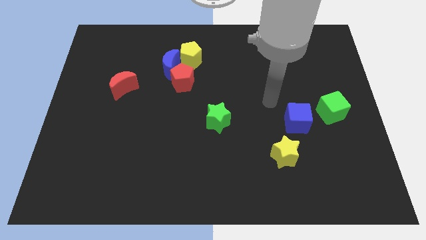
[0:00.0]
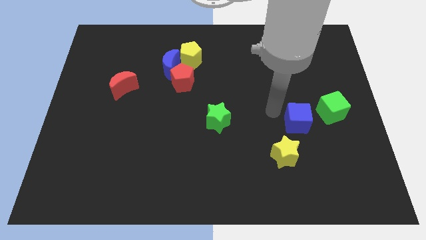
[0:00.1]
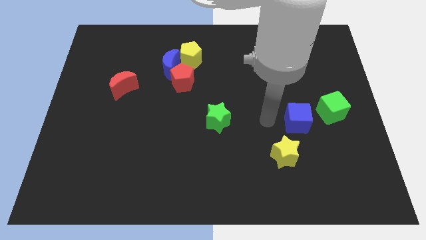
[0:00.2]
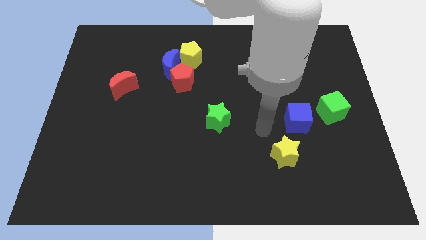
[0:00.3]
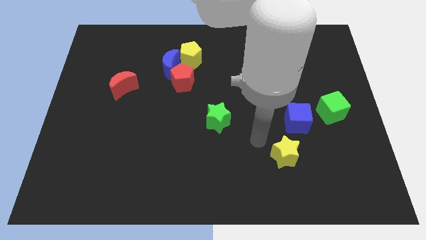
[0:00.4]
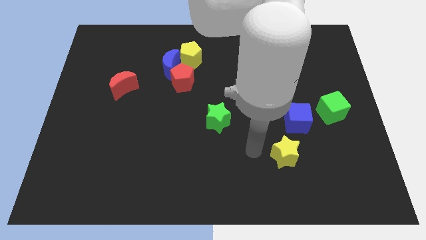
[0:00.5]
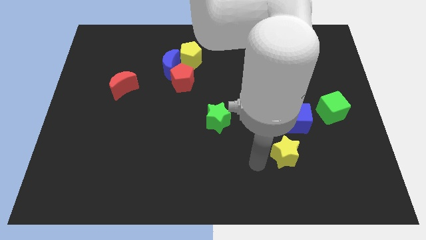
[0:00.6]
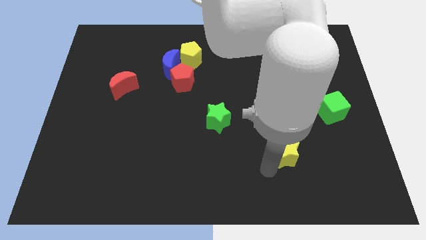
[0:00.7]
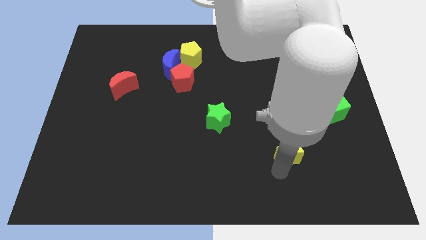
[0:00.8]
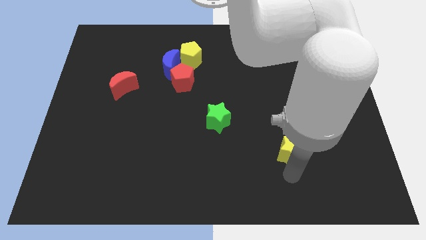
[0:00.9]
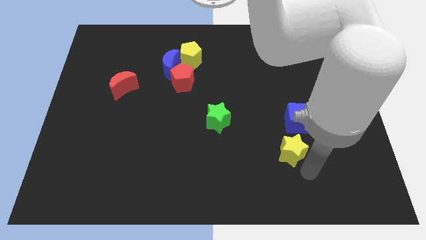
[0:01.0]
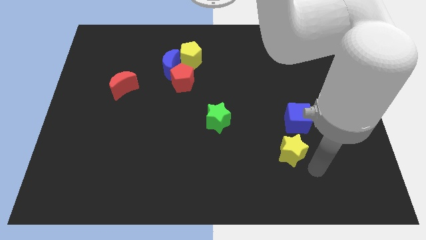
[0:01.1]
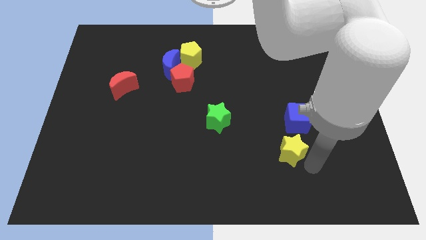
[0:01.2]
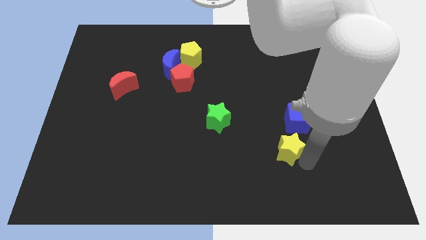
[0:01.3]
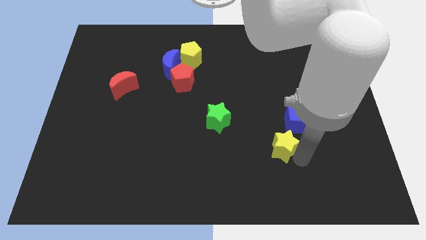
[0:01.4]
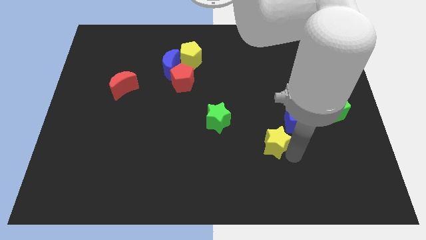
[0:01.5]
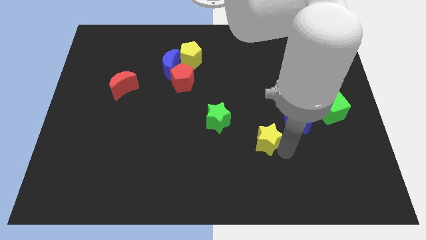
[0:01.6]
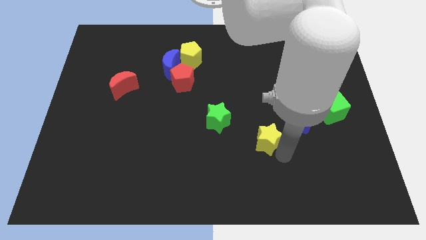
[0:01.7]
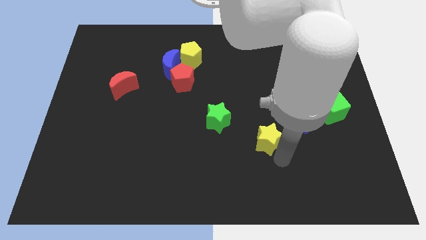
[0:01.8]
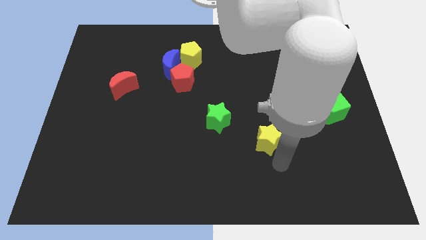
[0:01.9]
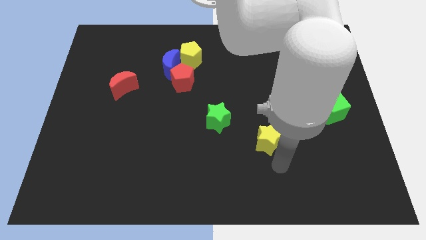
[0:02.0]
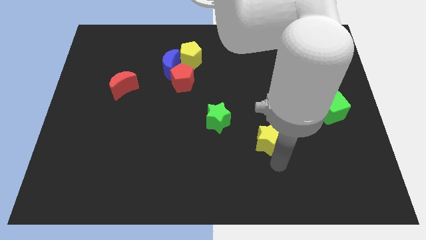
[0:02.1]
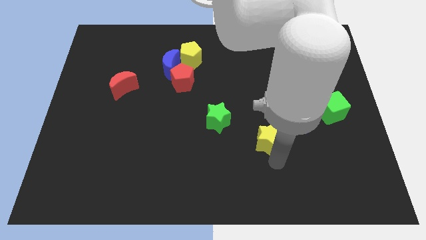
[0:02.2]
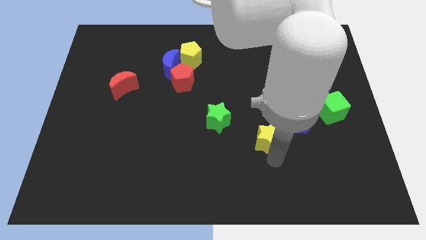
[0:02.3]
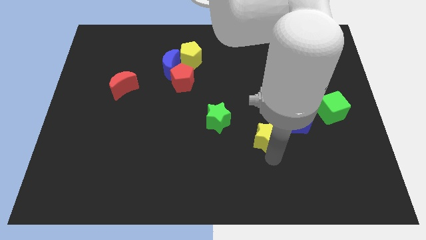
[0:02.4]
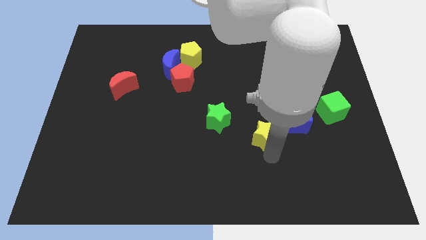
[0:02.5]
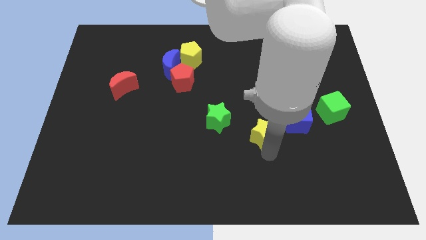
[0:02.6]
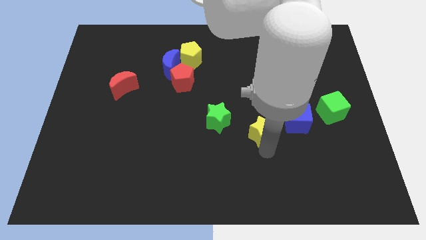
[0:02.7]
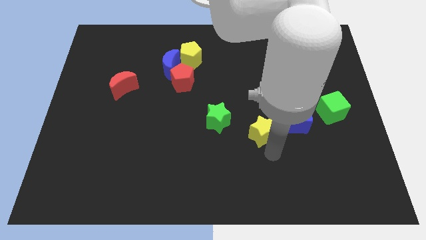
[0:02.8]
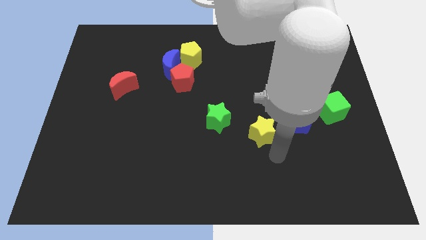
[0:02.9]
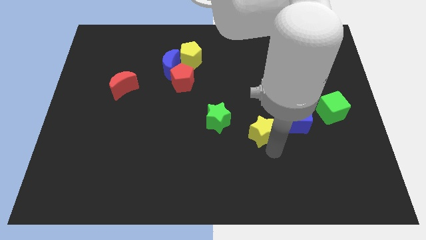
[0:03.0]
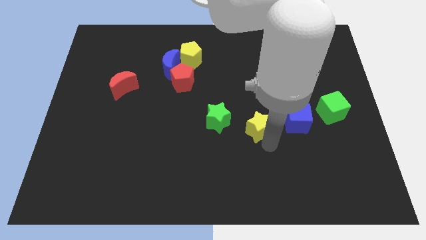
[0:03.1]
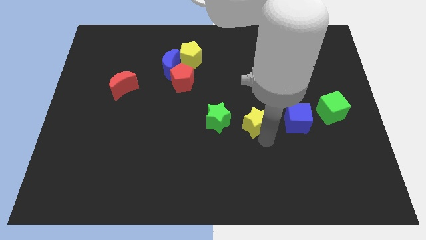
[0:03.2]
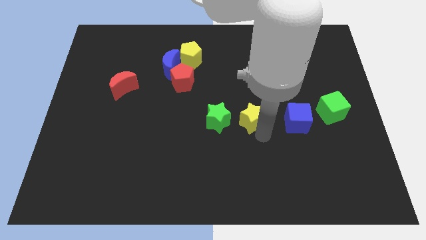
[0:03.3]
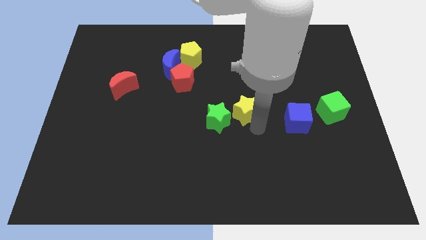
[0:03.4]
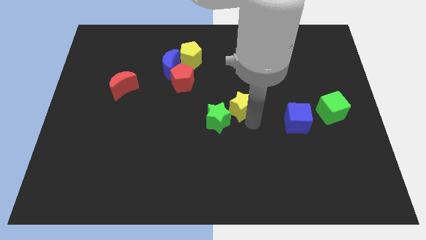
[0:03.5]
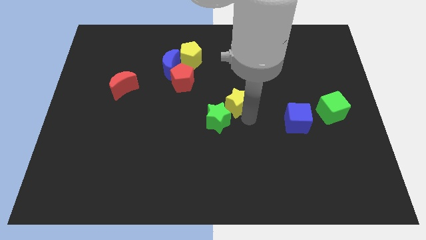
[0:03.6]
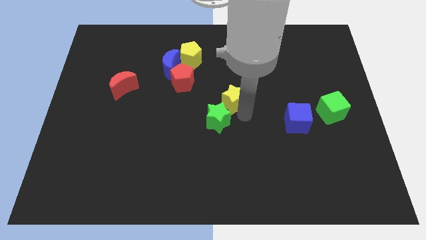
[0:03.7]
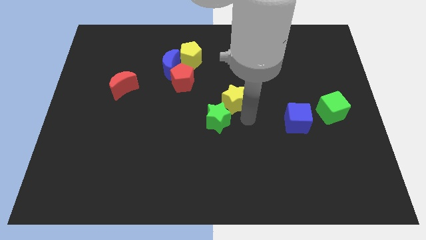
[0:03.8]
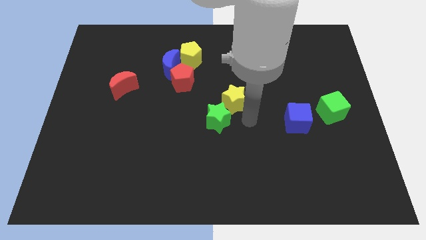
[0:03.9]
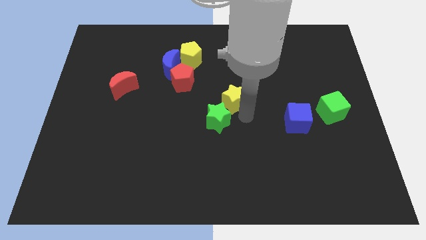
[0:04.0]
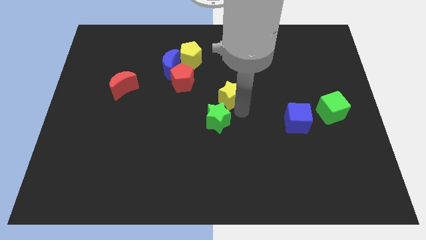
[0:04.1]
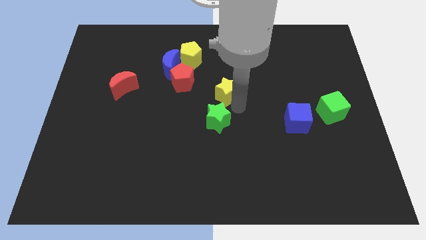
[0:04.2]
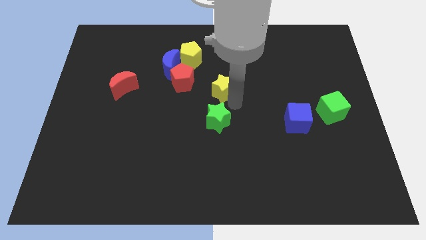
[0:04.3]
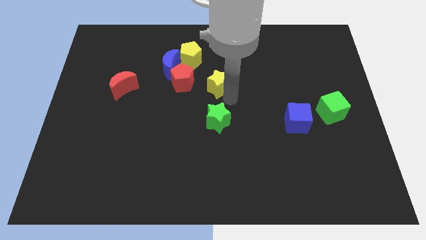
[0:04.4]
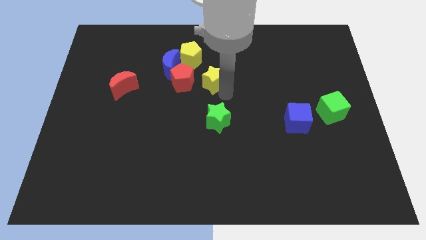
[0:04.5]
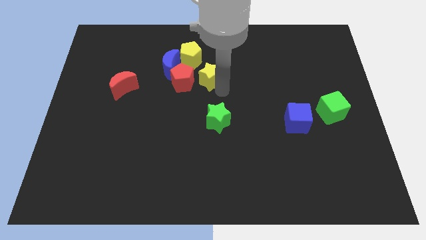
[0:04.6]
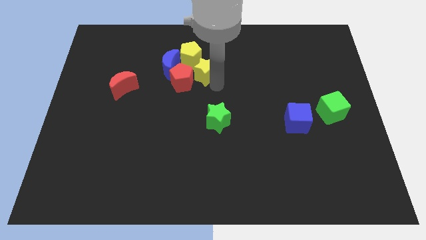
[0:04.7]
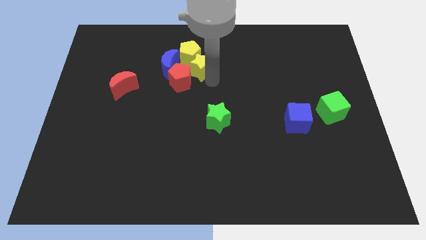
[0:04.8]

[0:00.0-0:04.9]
slide the yellow star towards the yellow pentagon

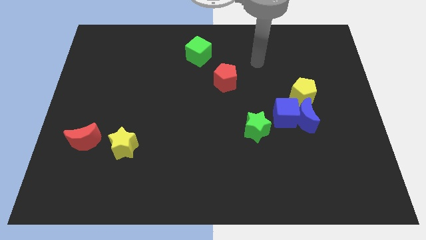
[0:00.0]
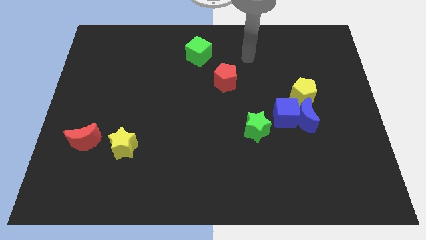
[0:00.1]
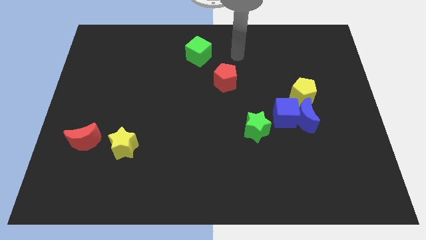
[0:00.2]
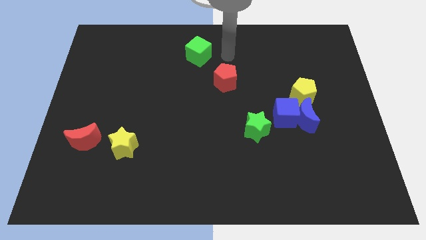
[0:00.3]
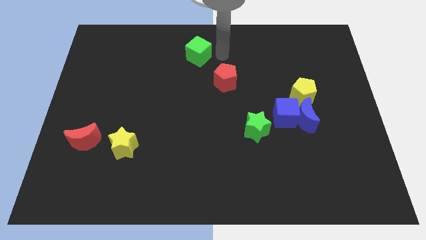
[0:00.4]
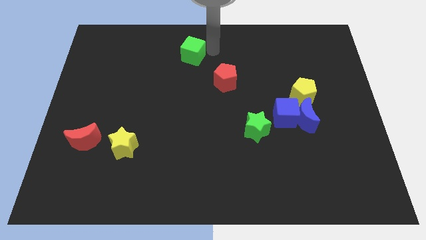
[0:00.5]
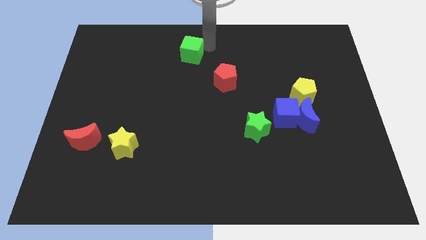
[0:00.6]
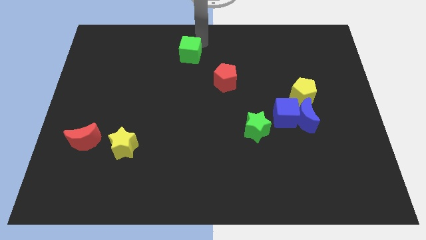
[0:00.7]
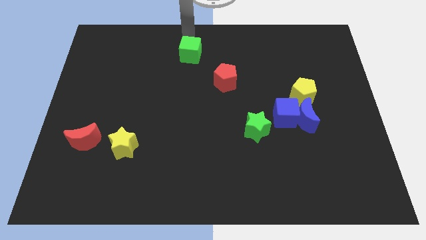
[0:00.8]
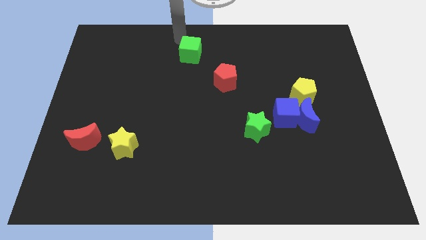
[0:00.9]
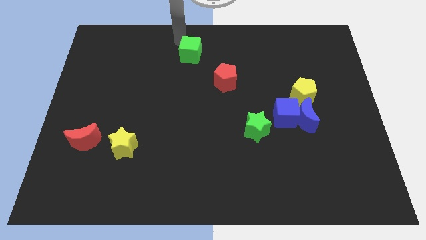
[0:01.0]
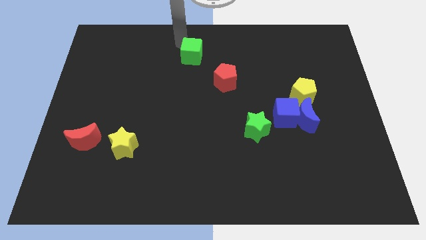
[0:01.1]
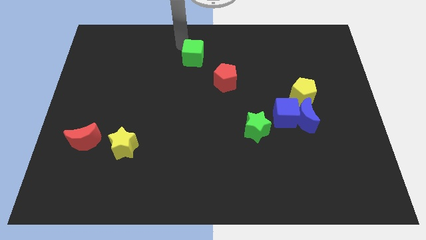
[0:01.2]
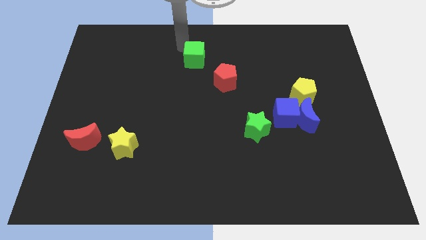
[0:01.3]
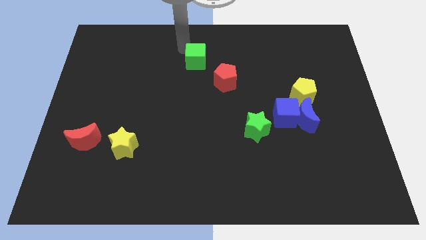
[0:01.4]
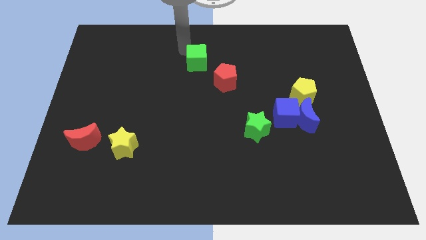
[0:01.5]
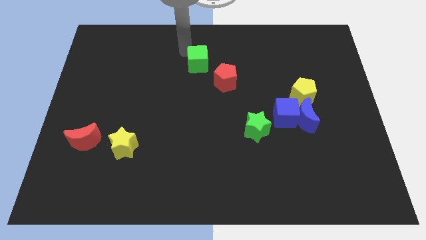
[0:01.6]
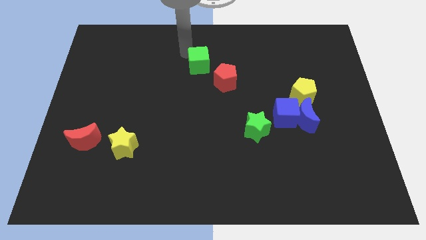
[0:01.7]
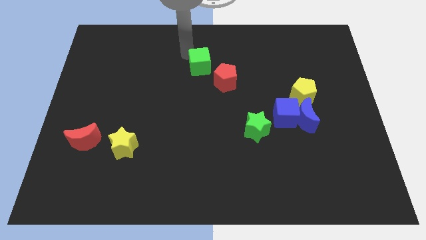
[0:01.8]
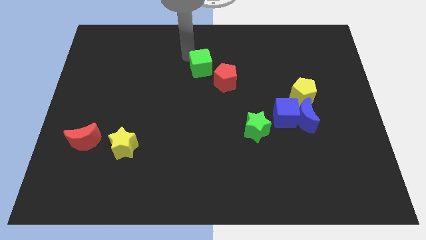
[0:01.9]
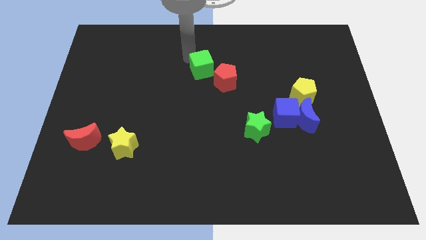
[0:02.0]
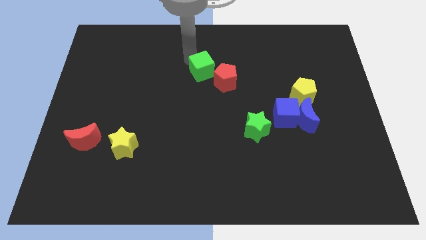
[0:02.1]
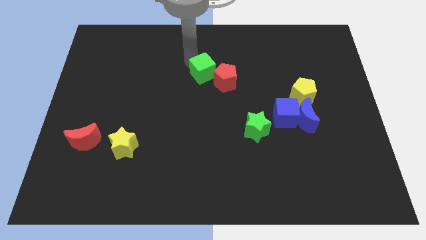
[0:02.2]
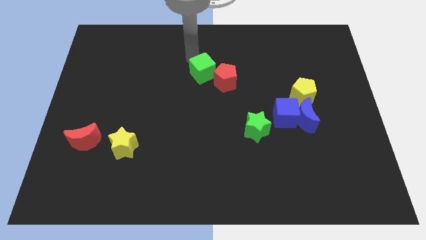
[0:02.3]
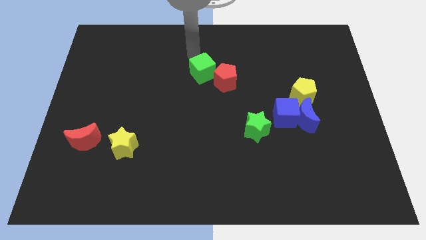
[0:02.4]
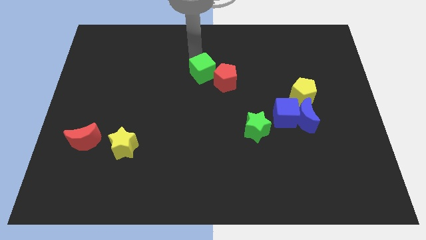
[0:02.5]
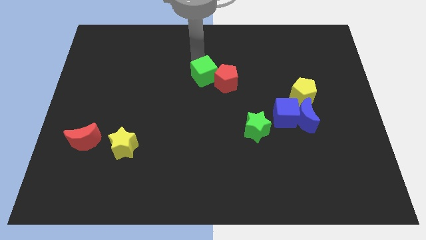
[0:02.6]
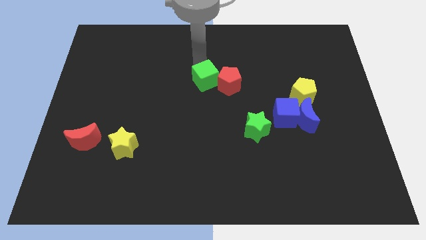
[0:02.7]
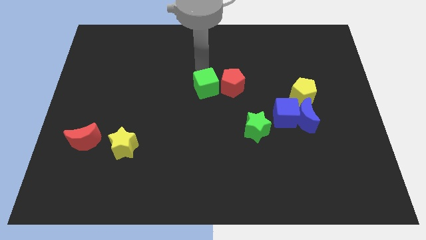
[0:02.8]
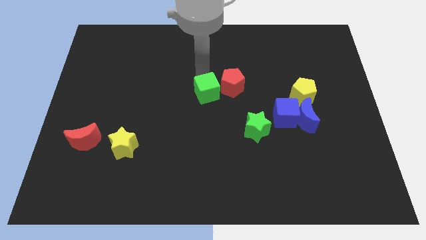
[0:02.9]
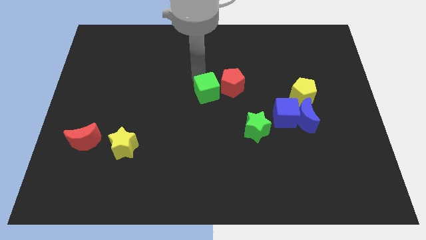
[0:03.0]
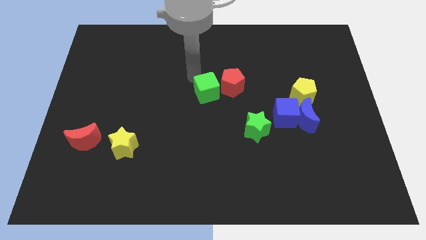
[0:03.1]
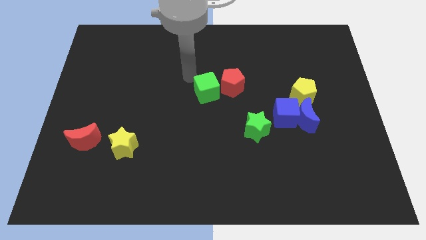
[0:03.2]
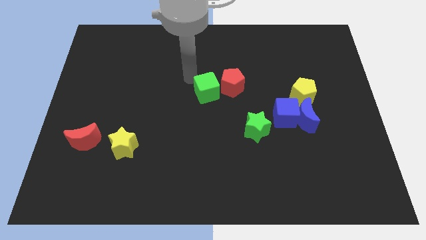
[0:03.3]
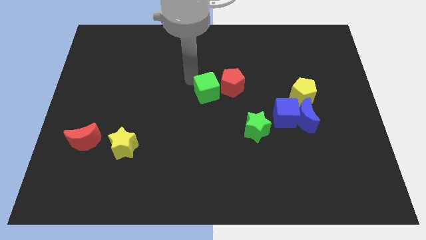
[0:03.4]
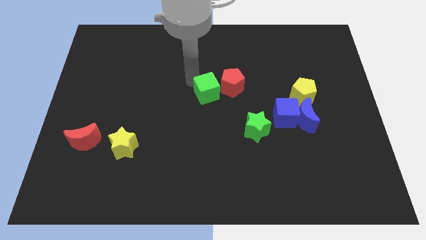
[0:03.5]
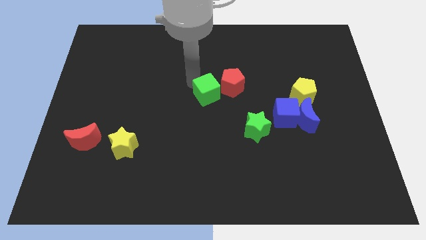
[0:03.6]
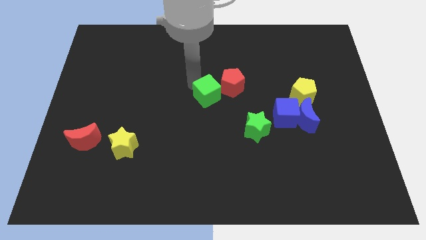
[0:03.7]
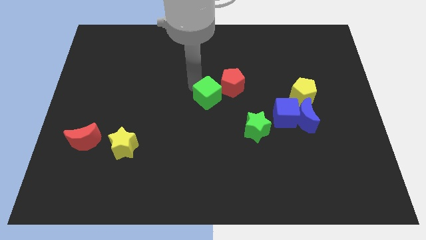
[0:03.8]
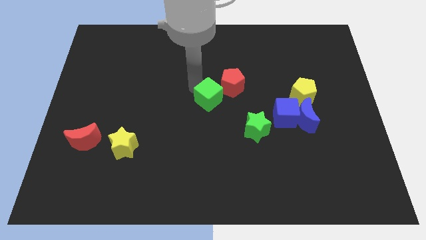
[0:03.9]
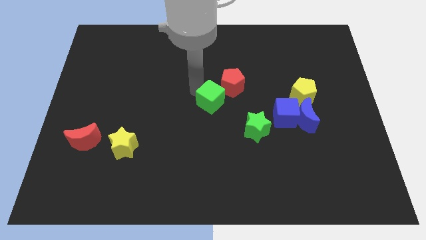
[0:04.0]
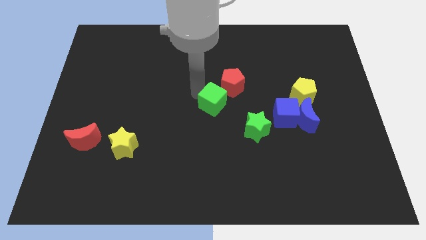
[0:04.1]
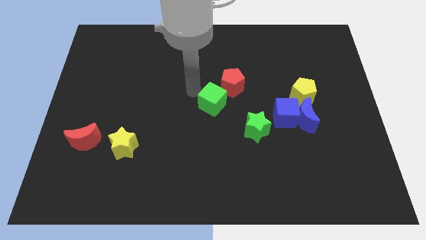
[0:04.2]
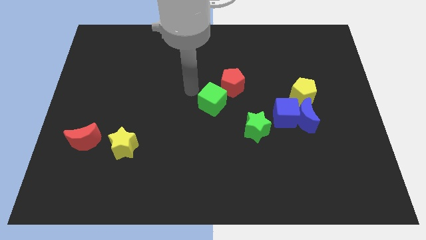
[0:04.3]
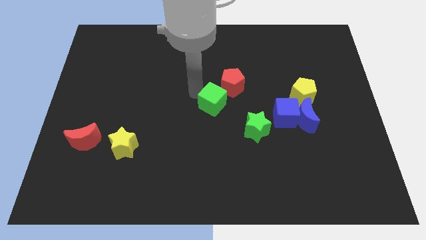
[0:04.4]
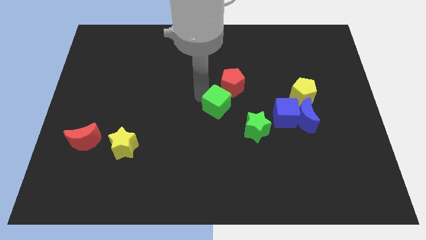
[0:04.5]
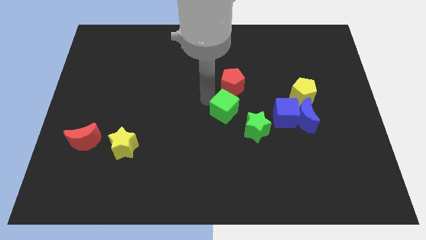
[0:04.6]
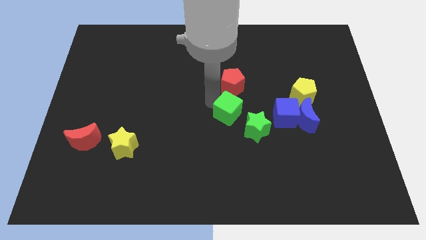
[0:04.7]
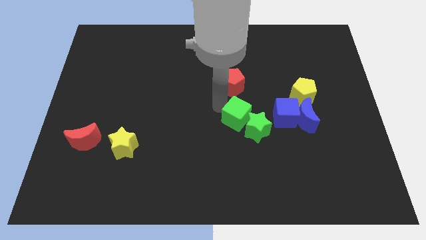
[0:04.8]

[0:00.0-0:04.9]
move the green cube next to the green star
